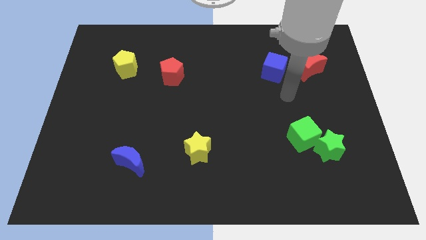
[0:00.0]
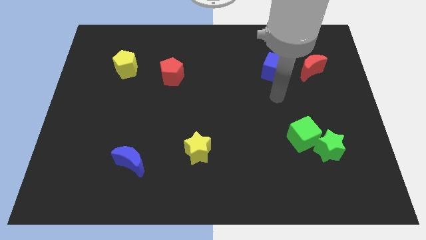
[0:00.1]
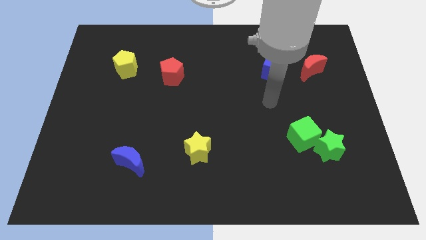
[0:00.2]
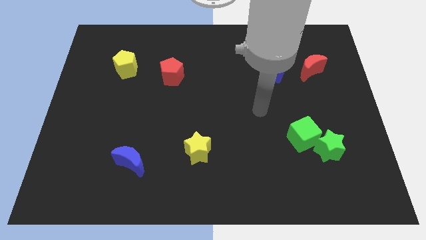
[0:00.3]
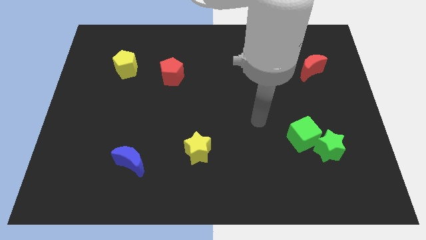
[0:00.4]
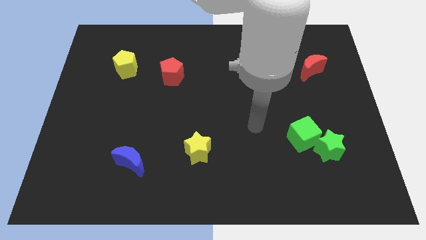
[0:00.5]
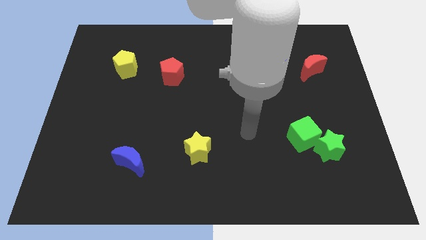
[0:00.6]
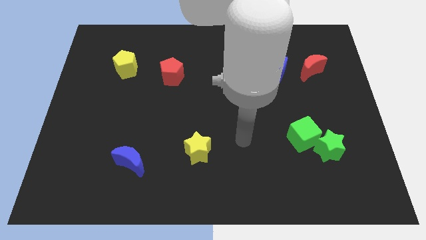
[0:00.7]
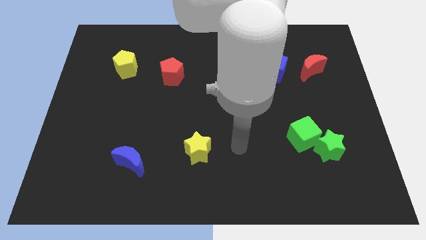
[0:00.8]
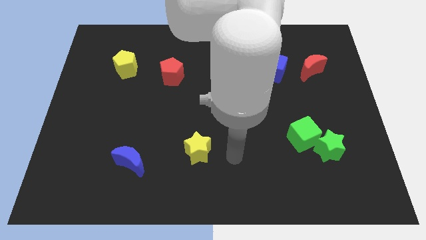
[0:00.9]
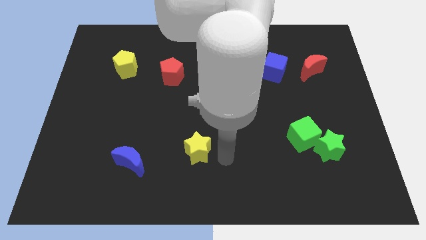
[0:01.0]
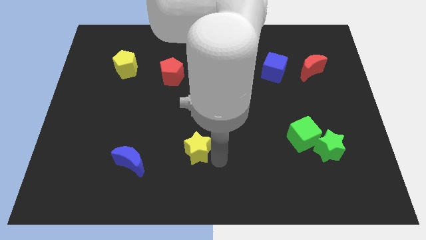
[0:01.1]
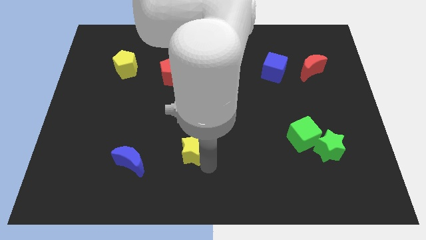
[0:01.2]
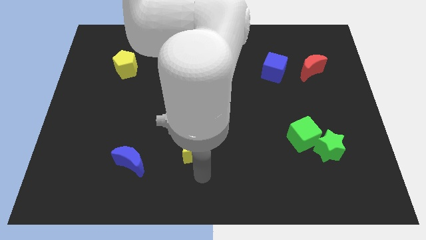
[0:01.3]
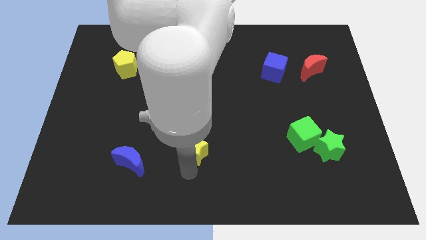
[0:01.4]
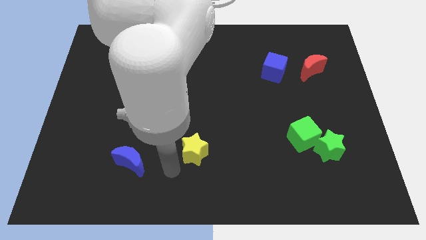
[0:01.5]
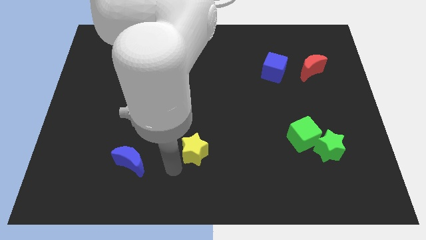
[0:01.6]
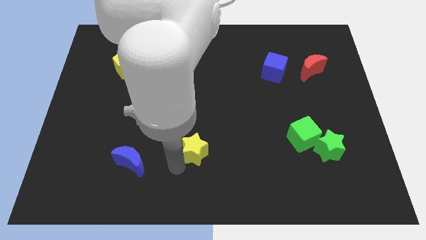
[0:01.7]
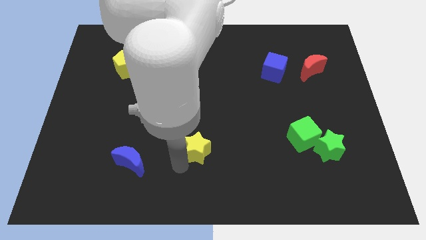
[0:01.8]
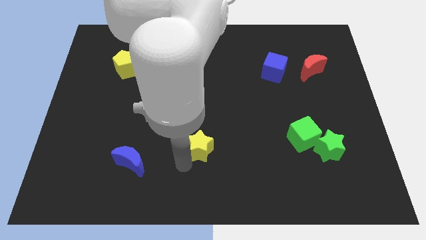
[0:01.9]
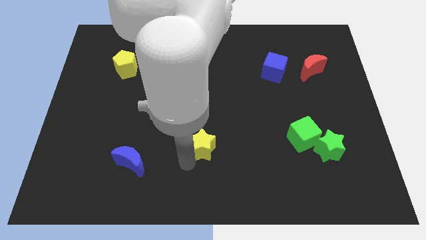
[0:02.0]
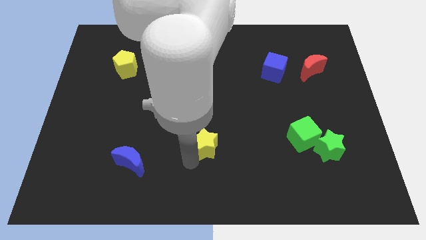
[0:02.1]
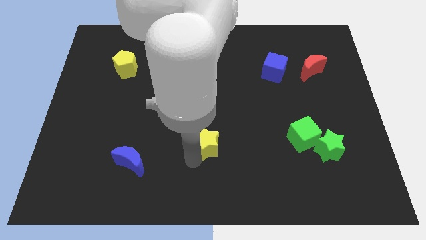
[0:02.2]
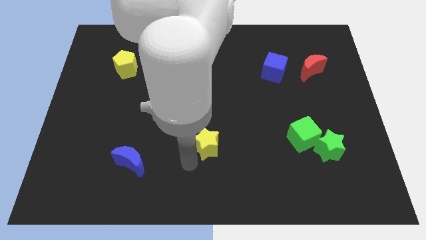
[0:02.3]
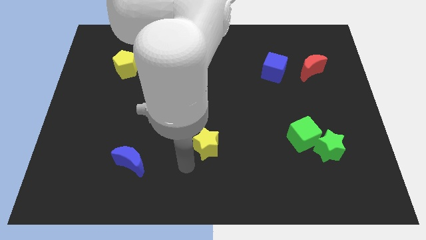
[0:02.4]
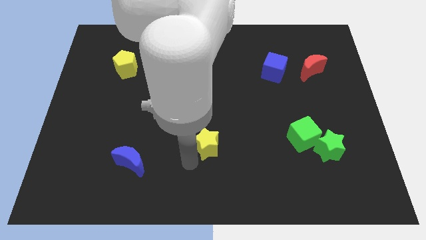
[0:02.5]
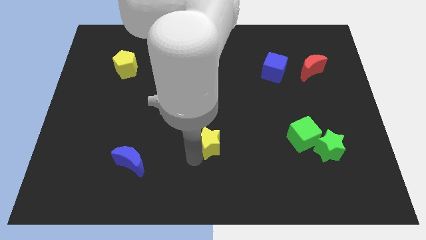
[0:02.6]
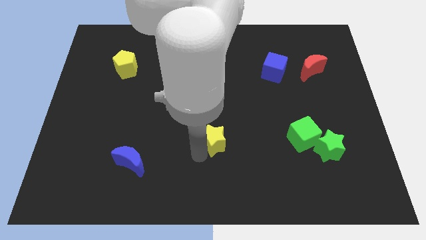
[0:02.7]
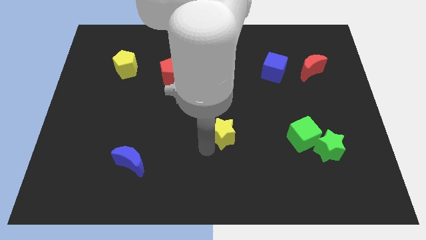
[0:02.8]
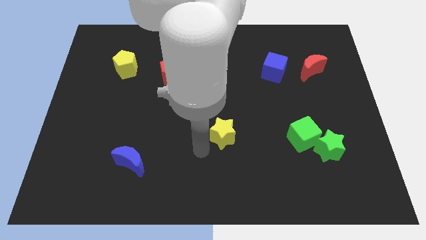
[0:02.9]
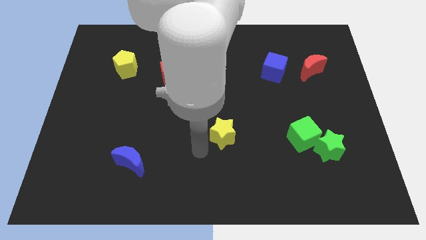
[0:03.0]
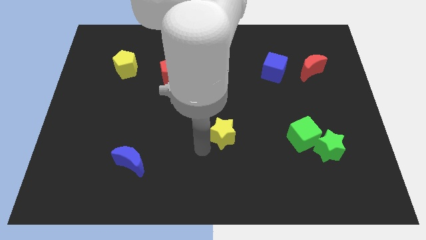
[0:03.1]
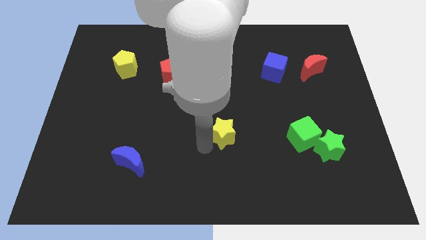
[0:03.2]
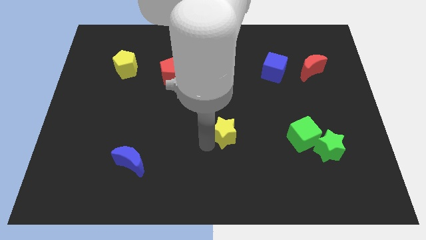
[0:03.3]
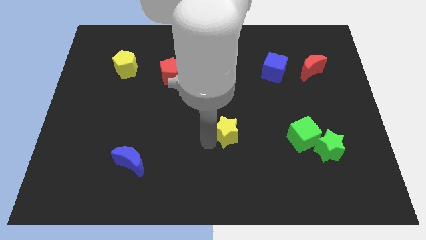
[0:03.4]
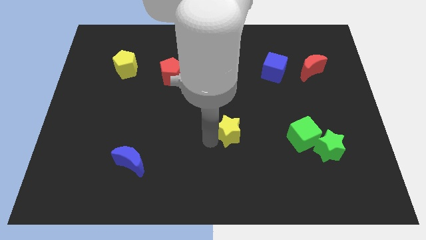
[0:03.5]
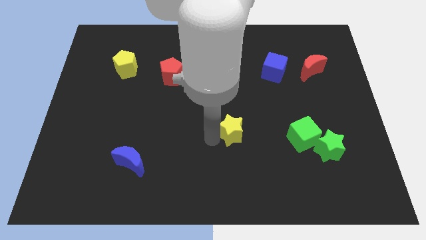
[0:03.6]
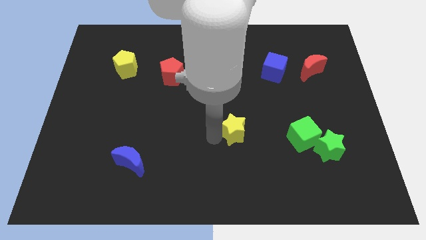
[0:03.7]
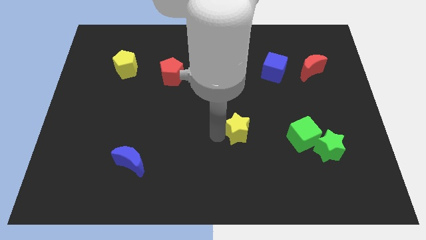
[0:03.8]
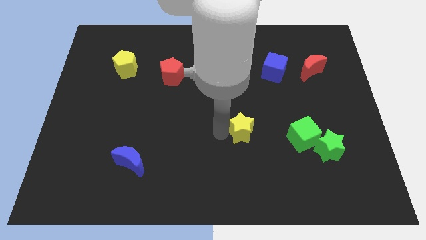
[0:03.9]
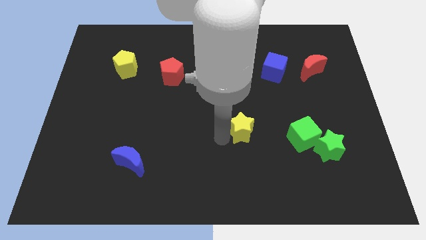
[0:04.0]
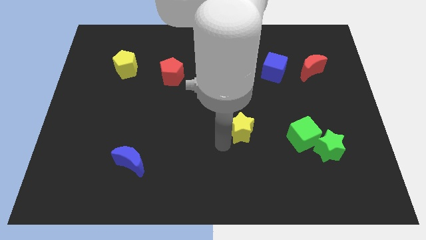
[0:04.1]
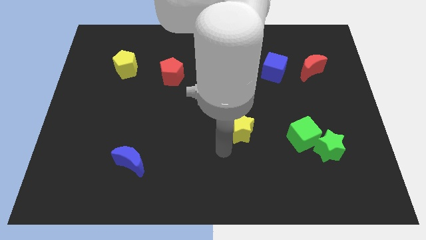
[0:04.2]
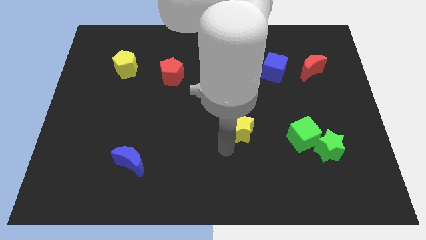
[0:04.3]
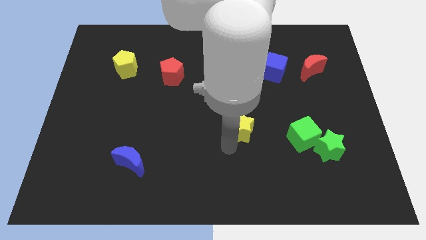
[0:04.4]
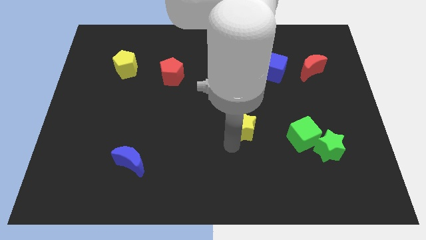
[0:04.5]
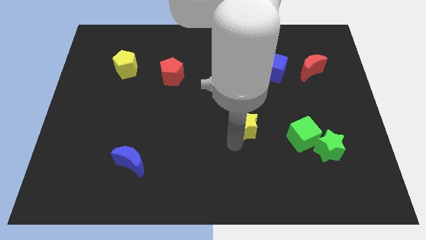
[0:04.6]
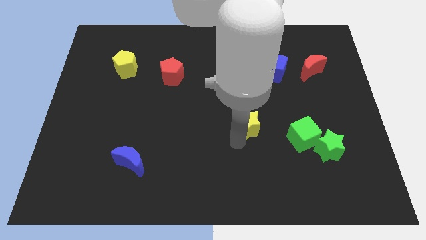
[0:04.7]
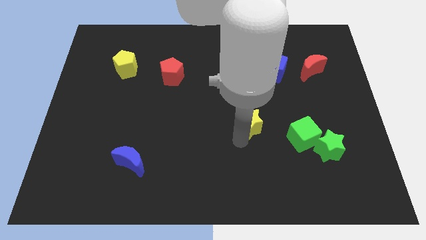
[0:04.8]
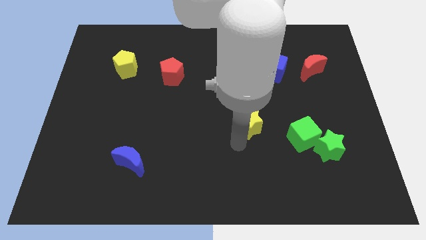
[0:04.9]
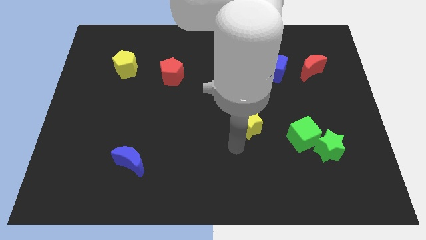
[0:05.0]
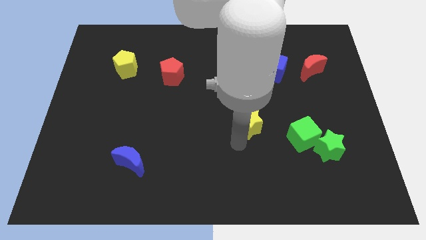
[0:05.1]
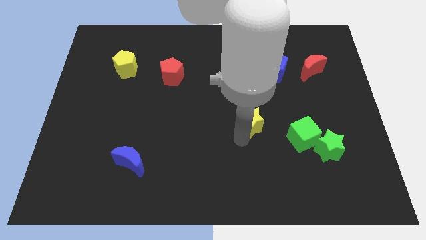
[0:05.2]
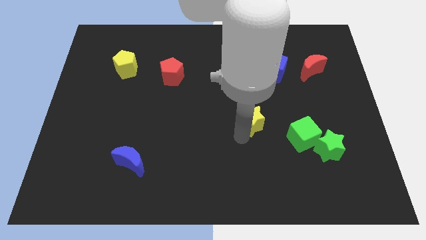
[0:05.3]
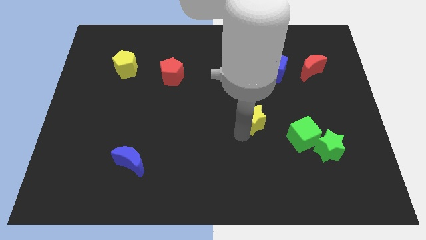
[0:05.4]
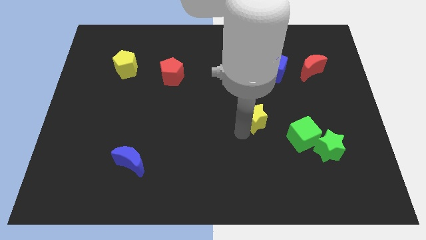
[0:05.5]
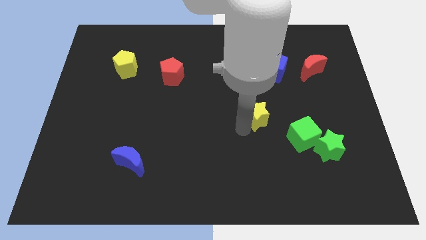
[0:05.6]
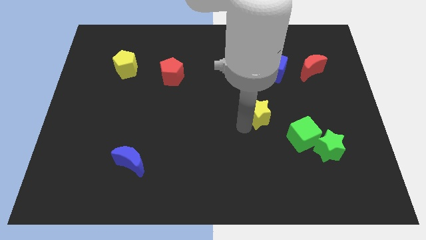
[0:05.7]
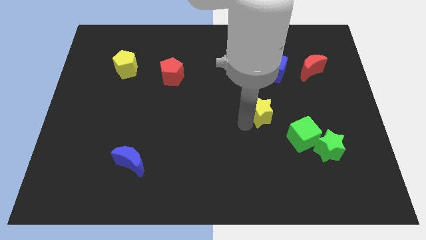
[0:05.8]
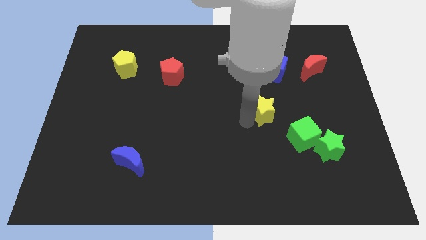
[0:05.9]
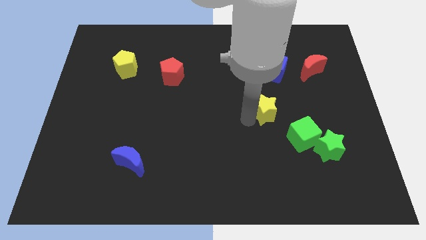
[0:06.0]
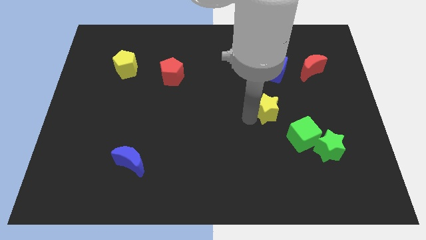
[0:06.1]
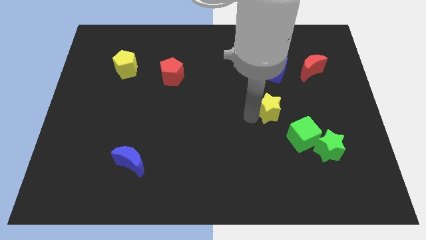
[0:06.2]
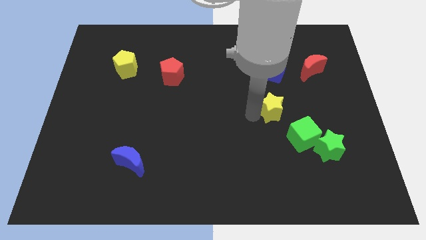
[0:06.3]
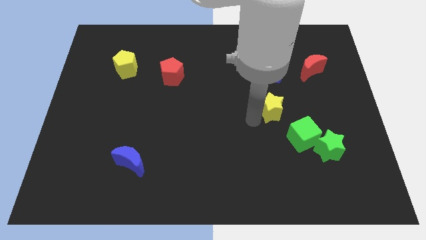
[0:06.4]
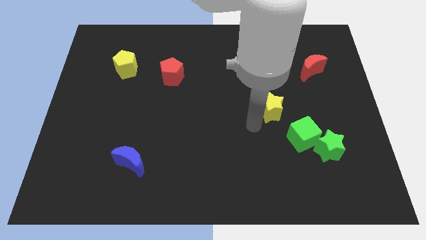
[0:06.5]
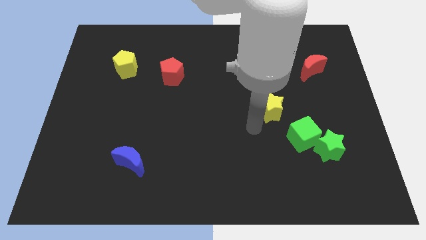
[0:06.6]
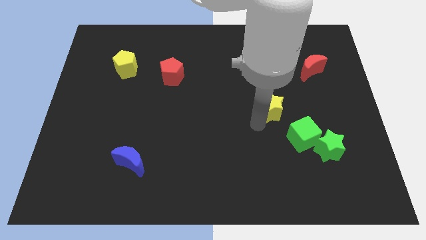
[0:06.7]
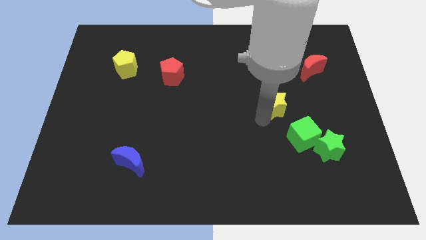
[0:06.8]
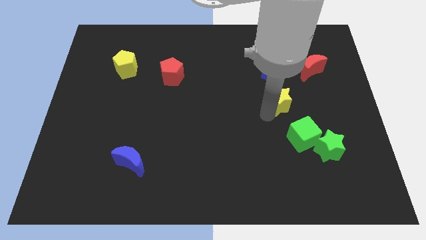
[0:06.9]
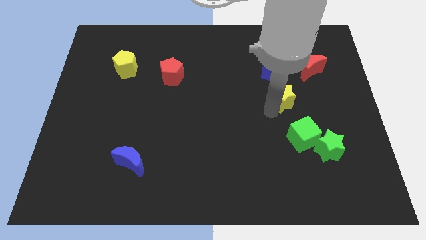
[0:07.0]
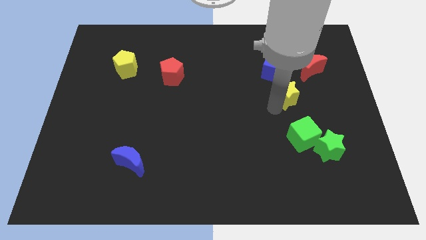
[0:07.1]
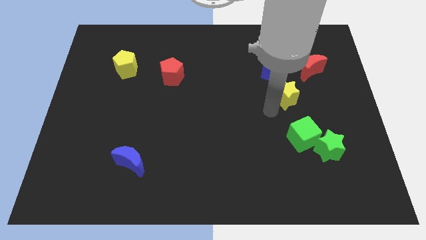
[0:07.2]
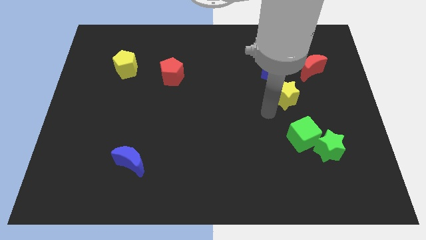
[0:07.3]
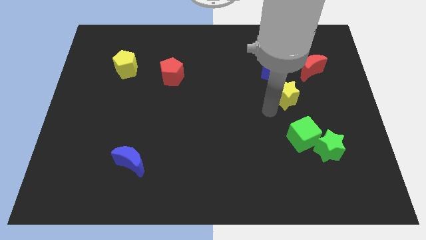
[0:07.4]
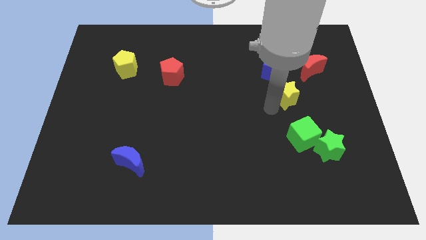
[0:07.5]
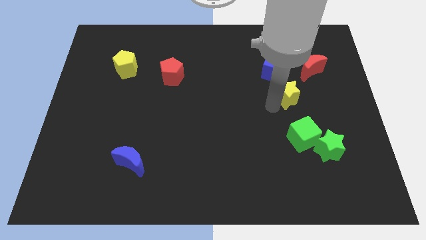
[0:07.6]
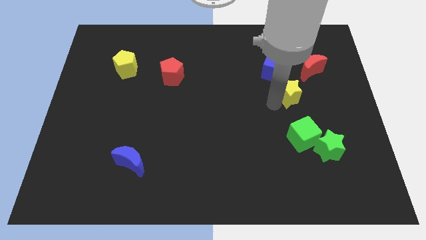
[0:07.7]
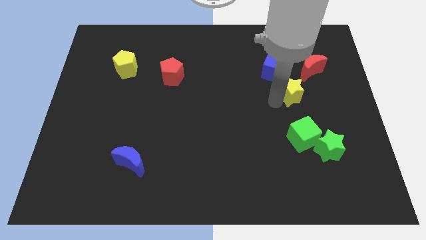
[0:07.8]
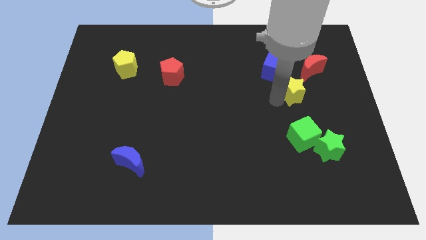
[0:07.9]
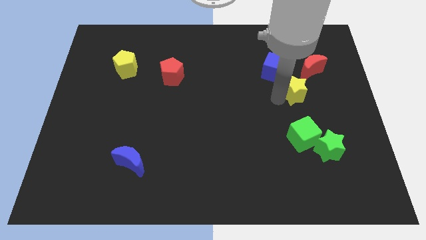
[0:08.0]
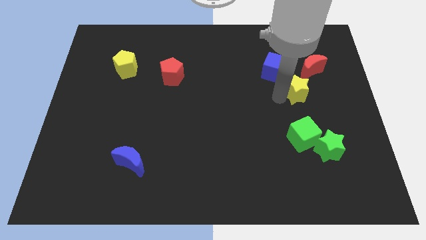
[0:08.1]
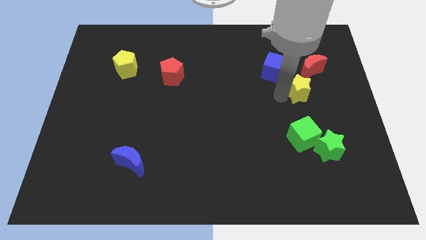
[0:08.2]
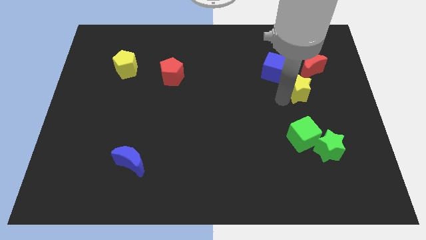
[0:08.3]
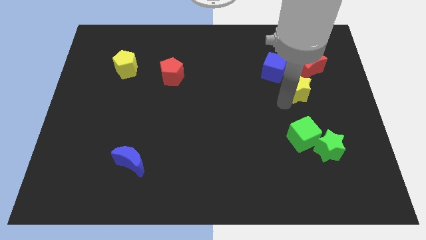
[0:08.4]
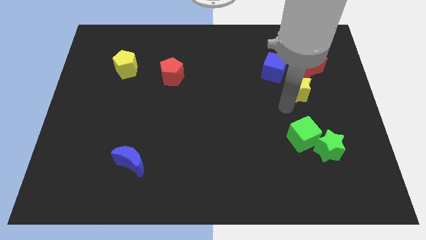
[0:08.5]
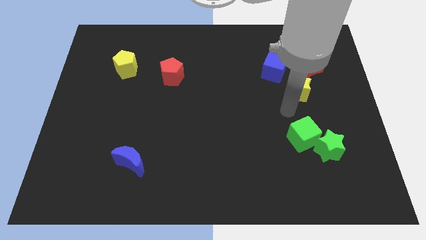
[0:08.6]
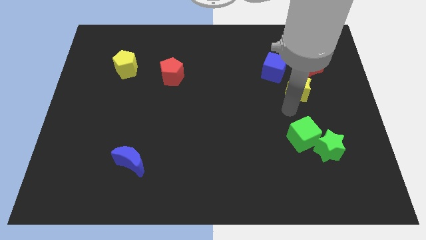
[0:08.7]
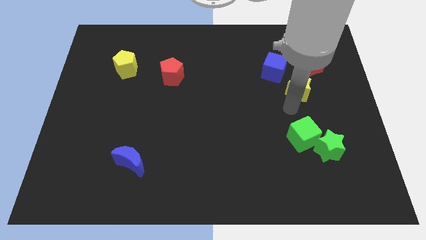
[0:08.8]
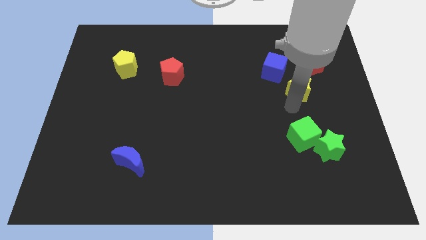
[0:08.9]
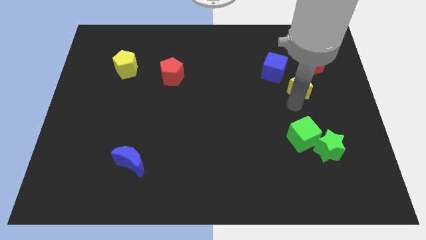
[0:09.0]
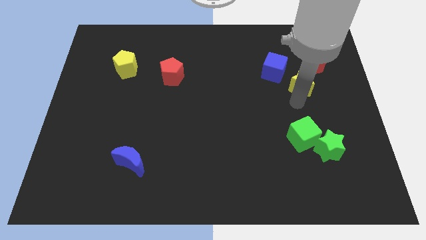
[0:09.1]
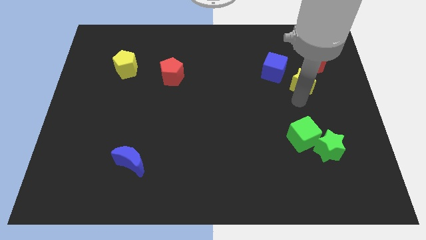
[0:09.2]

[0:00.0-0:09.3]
put the yellow star towards the red moon
